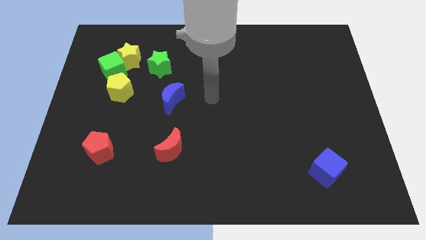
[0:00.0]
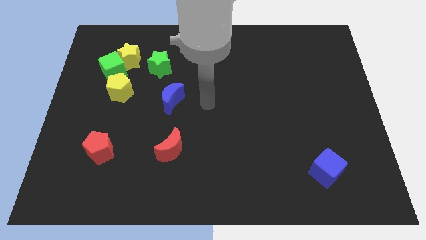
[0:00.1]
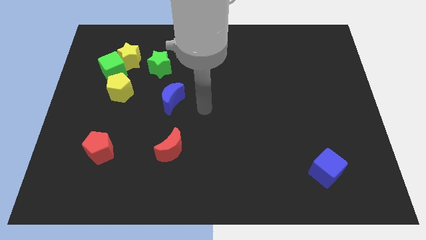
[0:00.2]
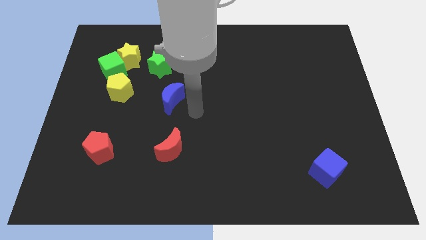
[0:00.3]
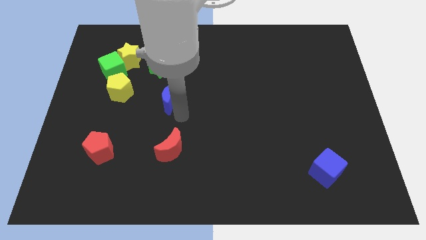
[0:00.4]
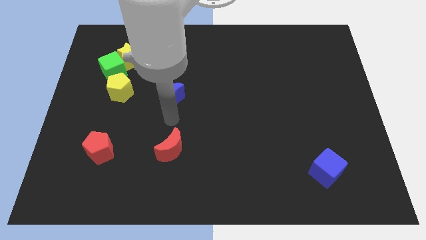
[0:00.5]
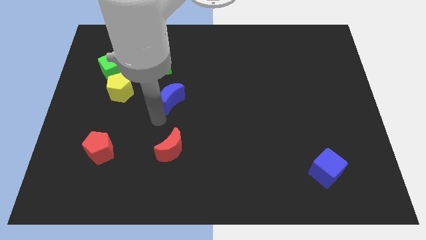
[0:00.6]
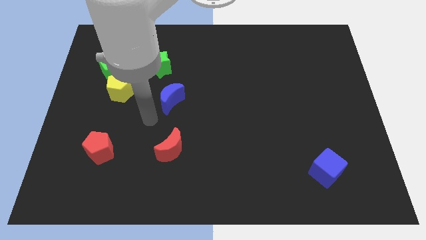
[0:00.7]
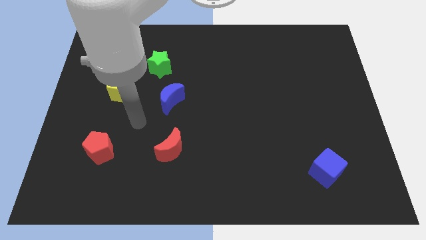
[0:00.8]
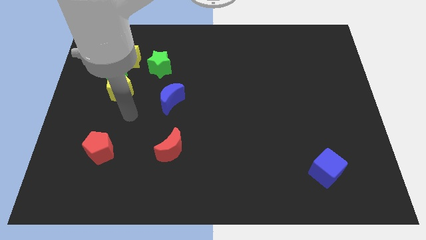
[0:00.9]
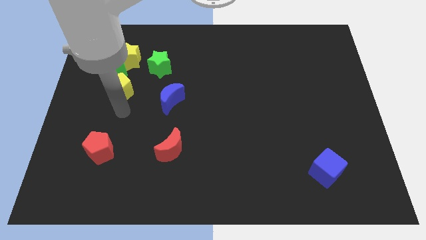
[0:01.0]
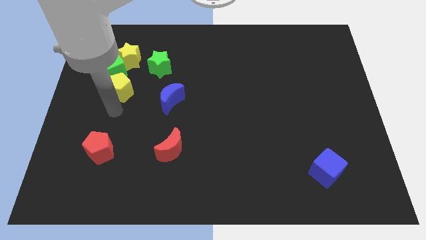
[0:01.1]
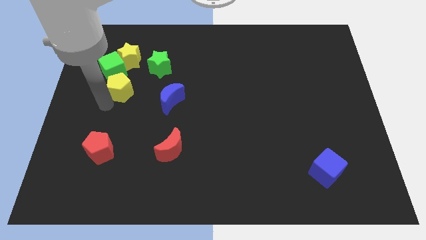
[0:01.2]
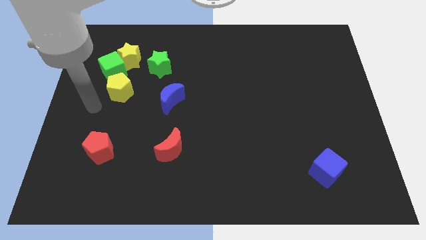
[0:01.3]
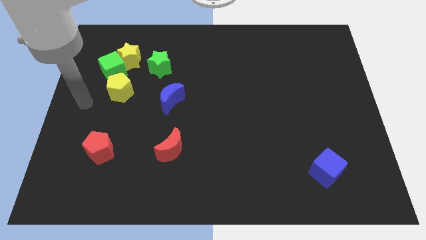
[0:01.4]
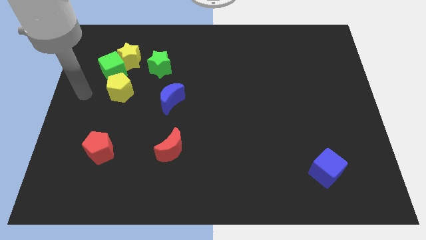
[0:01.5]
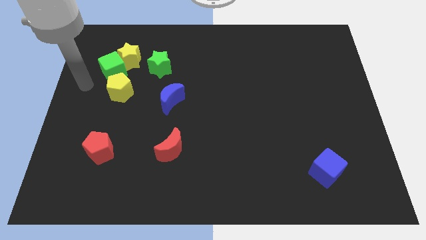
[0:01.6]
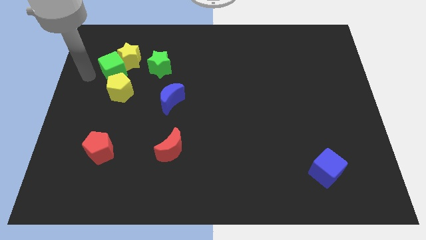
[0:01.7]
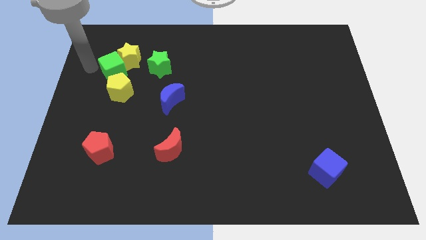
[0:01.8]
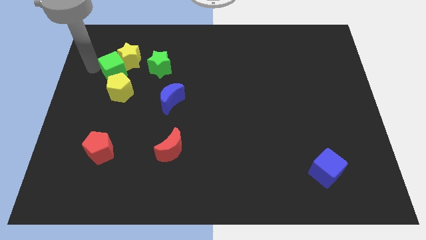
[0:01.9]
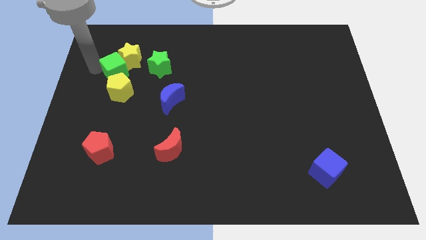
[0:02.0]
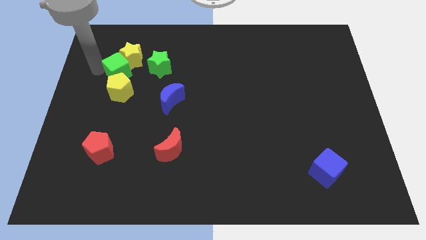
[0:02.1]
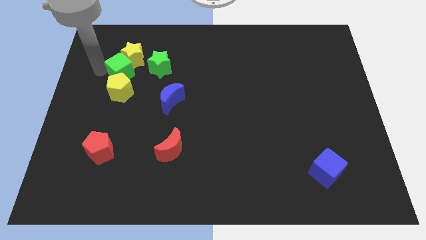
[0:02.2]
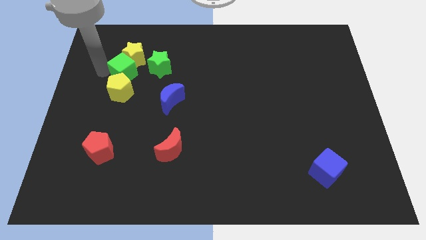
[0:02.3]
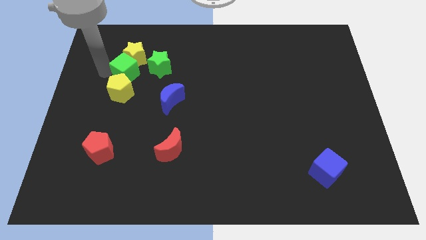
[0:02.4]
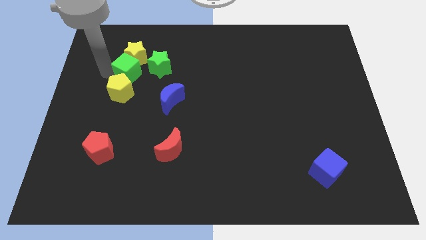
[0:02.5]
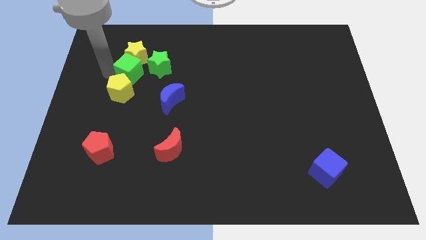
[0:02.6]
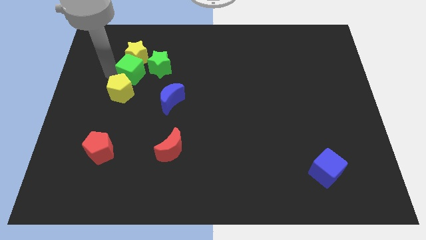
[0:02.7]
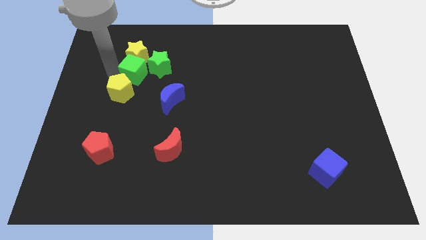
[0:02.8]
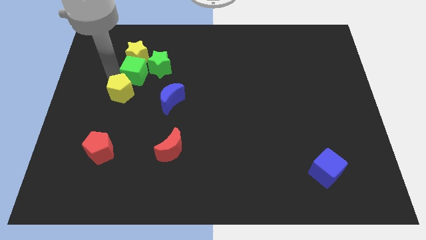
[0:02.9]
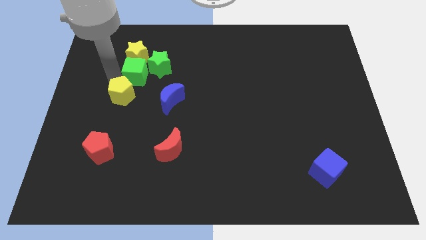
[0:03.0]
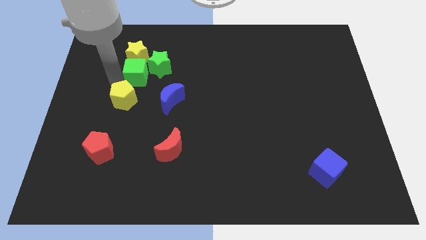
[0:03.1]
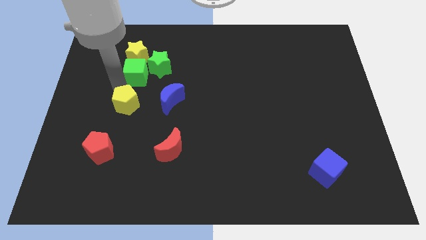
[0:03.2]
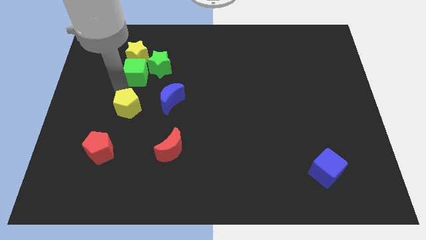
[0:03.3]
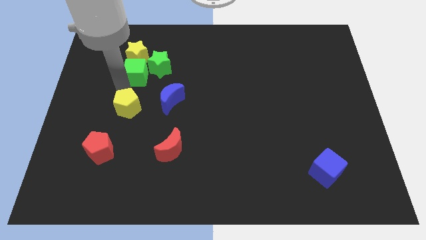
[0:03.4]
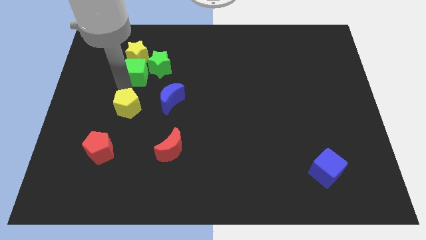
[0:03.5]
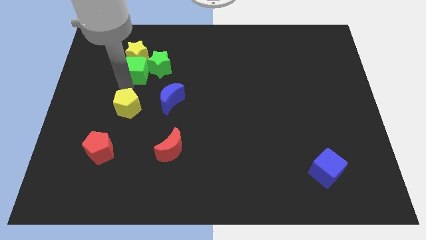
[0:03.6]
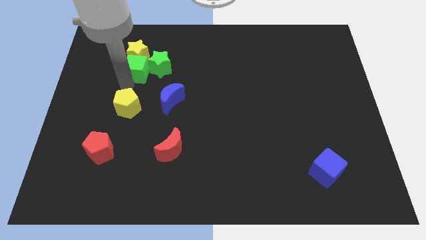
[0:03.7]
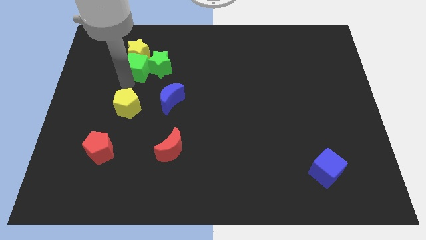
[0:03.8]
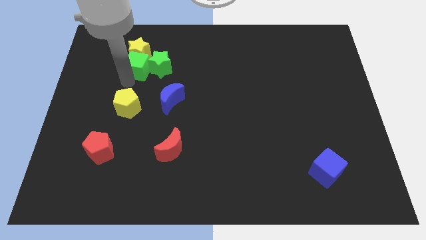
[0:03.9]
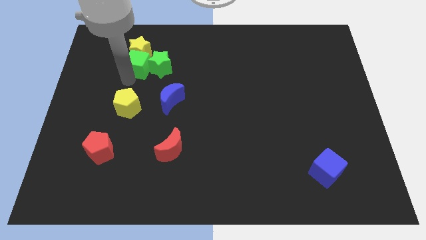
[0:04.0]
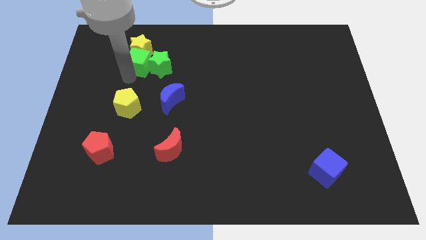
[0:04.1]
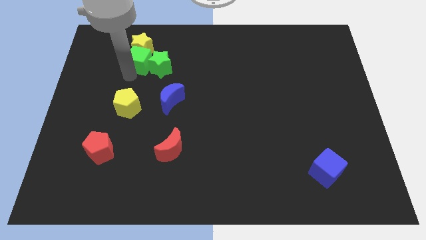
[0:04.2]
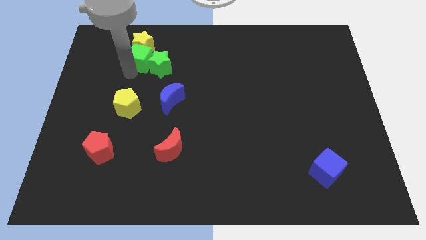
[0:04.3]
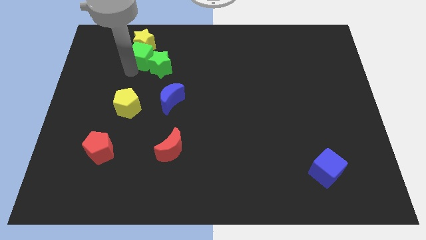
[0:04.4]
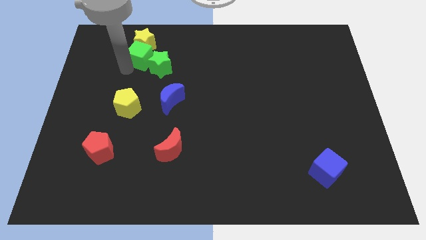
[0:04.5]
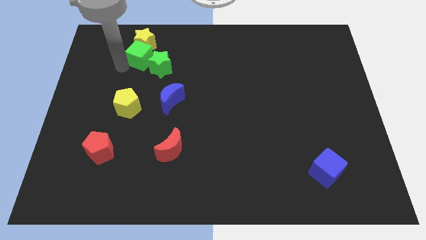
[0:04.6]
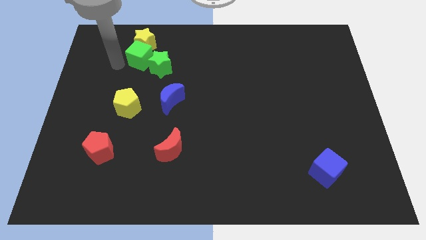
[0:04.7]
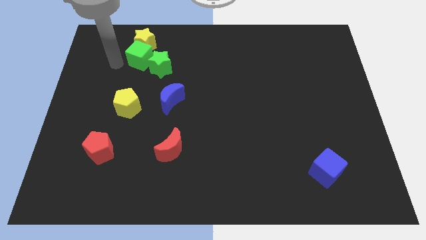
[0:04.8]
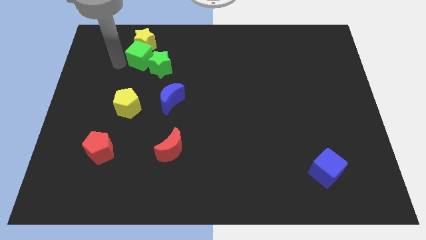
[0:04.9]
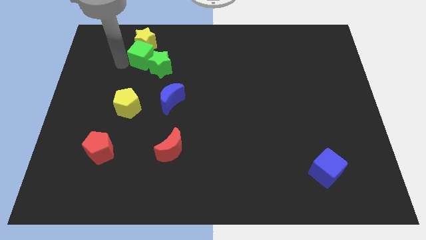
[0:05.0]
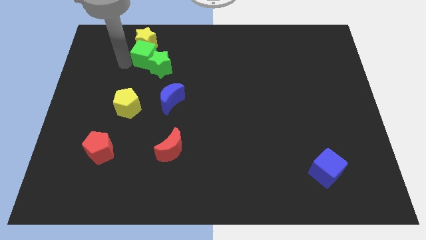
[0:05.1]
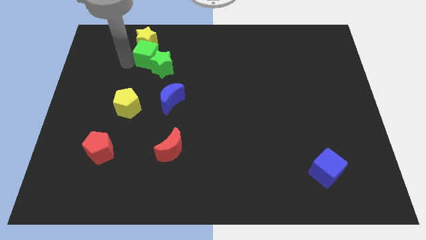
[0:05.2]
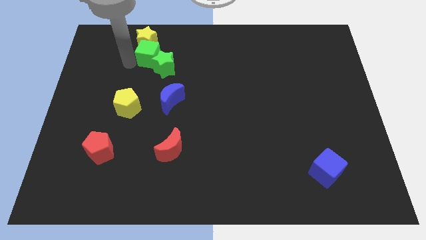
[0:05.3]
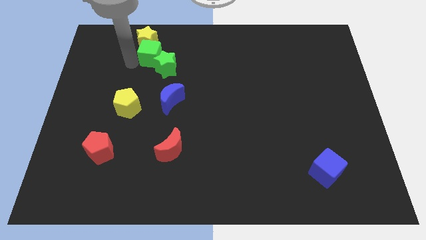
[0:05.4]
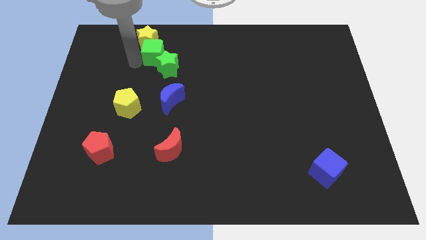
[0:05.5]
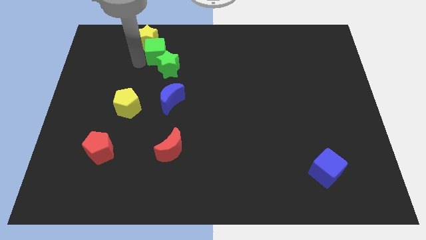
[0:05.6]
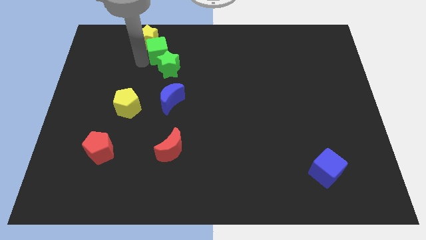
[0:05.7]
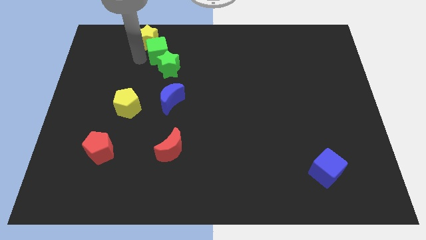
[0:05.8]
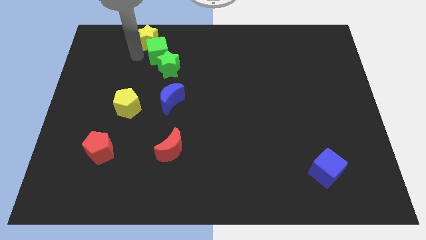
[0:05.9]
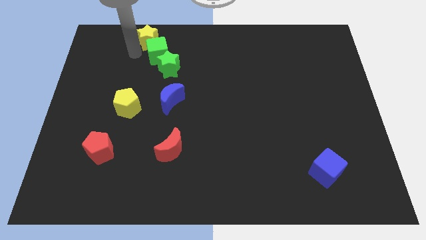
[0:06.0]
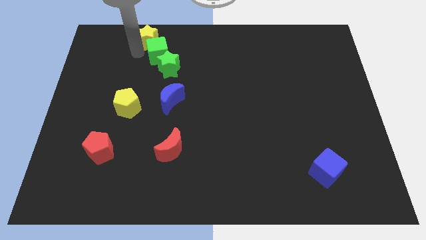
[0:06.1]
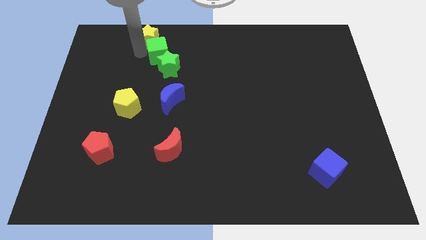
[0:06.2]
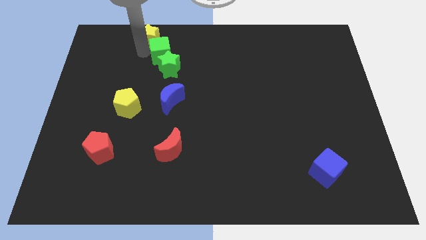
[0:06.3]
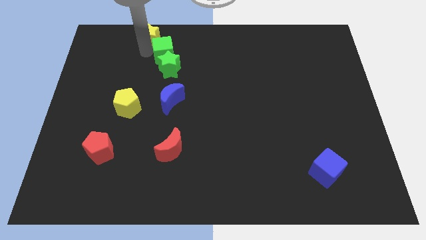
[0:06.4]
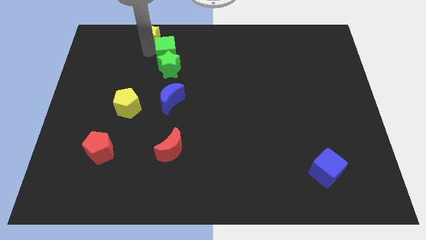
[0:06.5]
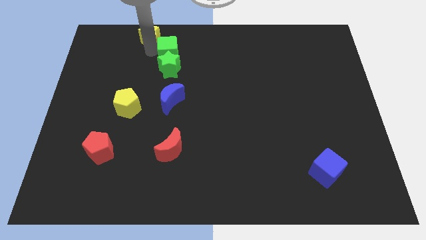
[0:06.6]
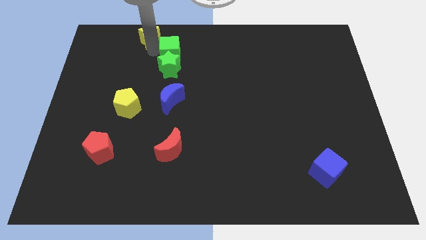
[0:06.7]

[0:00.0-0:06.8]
put the green cube to the top of the blue moon
